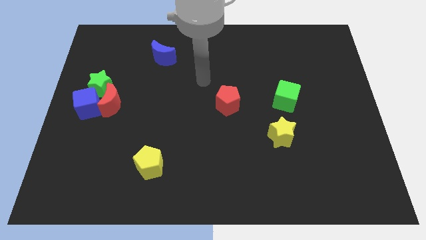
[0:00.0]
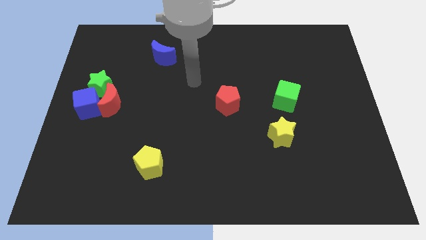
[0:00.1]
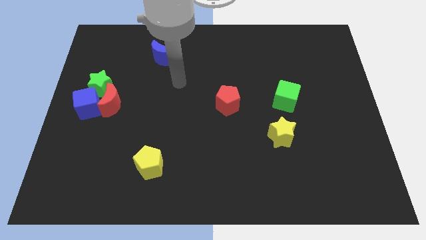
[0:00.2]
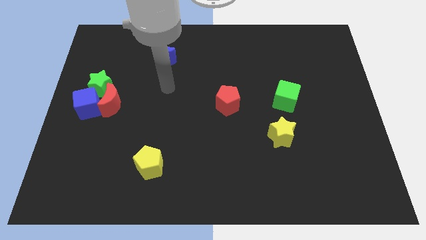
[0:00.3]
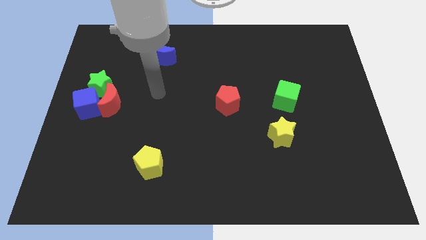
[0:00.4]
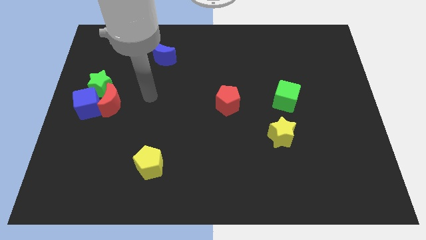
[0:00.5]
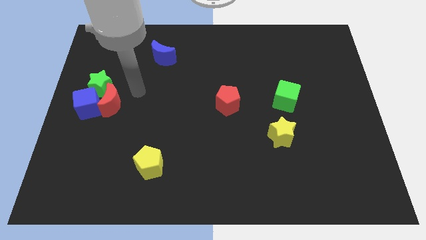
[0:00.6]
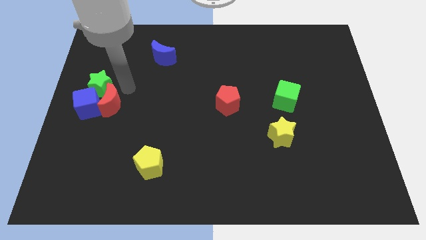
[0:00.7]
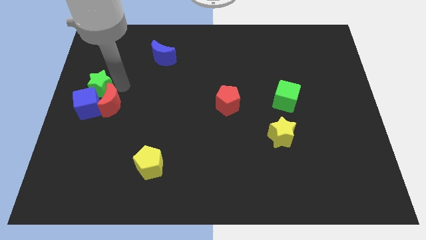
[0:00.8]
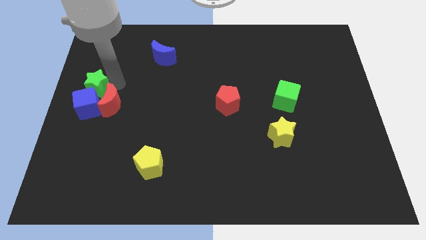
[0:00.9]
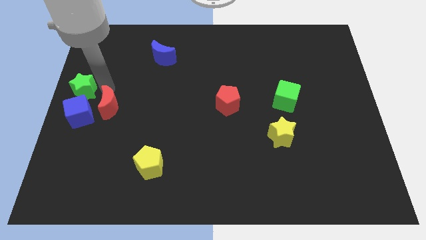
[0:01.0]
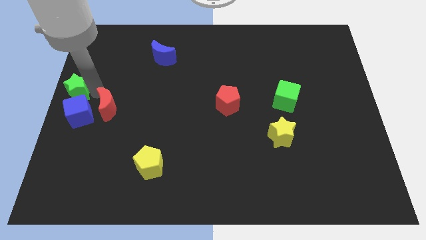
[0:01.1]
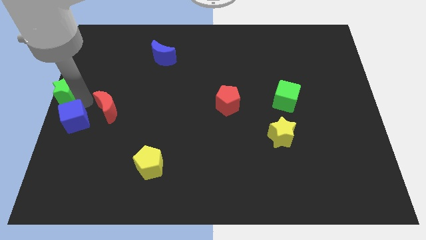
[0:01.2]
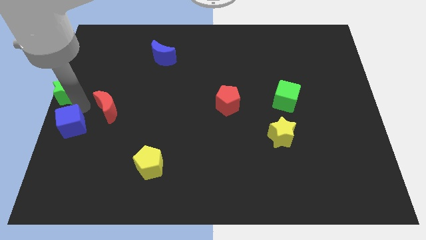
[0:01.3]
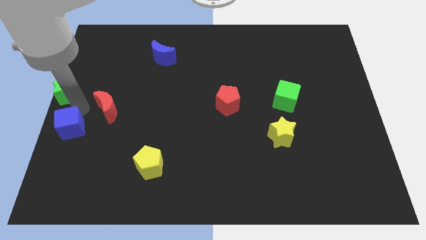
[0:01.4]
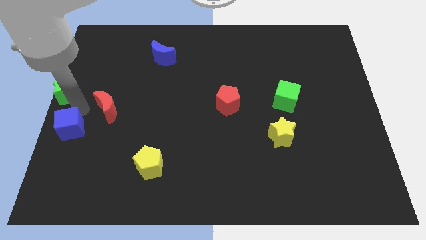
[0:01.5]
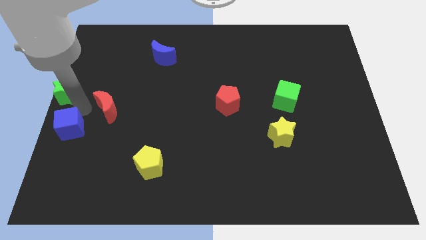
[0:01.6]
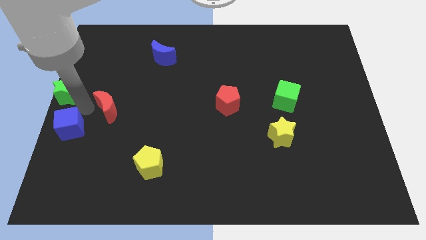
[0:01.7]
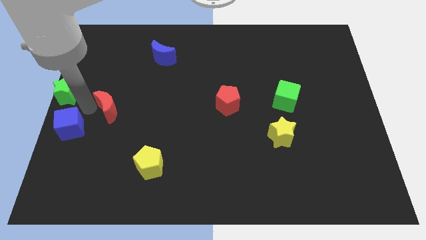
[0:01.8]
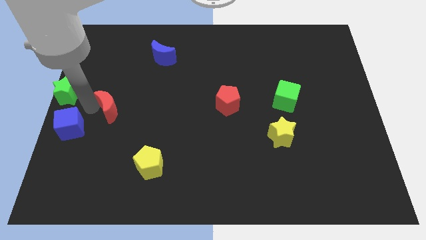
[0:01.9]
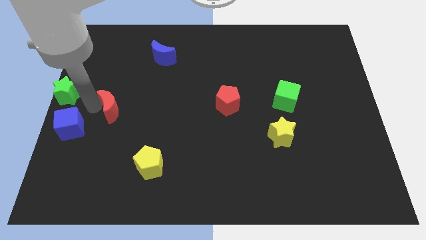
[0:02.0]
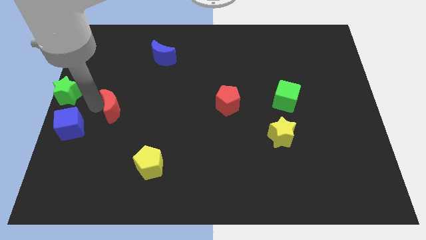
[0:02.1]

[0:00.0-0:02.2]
pull the red moon apart from the blue cube and green star

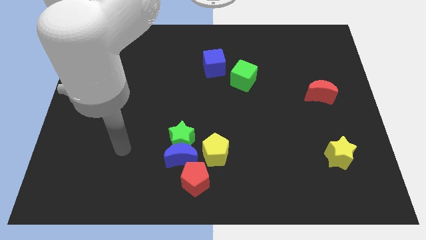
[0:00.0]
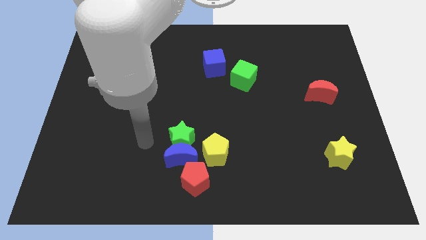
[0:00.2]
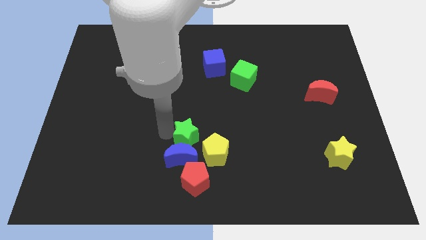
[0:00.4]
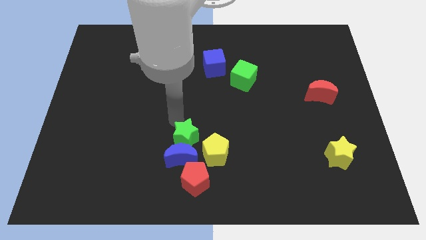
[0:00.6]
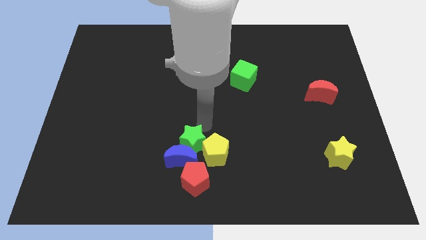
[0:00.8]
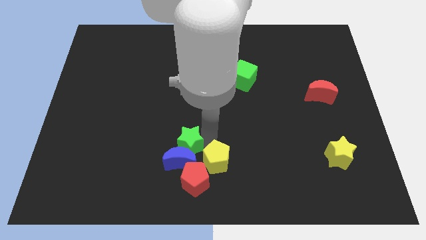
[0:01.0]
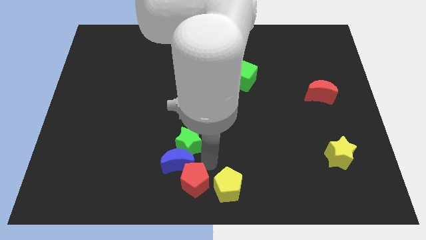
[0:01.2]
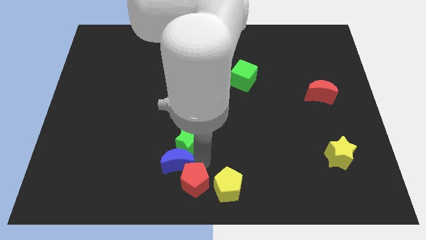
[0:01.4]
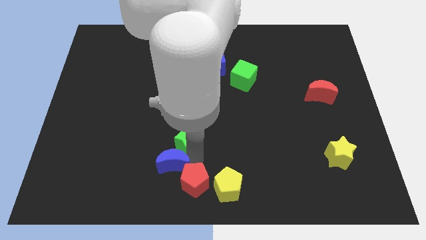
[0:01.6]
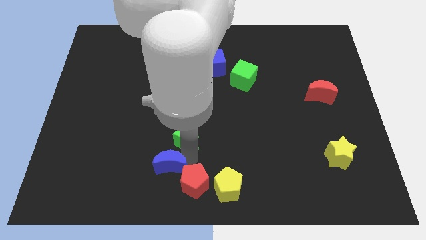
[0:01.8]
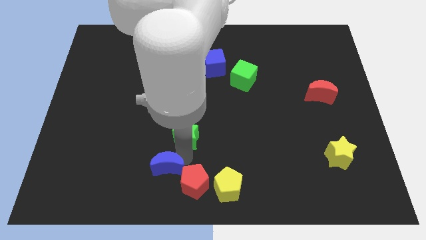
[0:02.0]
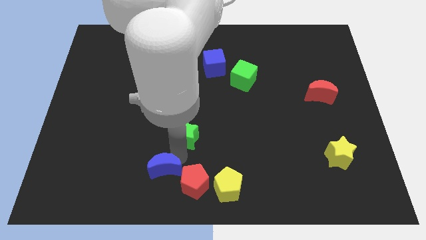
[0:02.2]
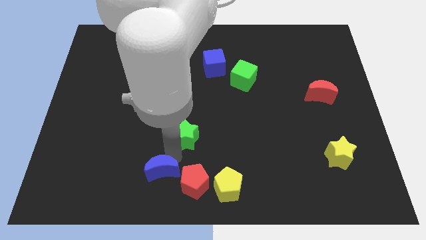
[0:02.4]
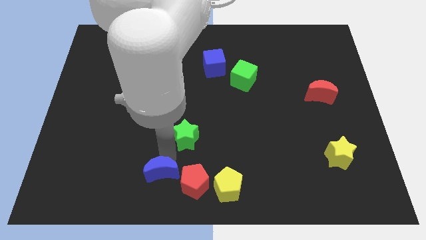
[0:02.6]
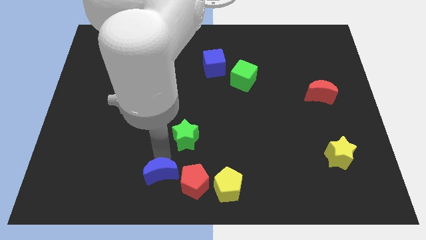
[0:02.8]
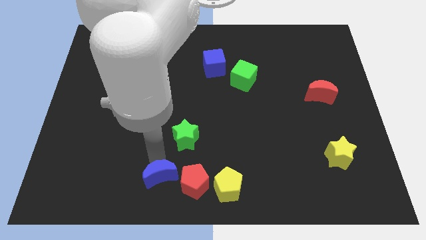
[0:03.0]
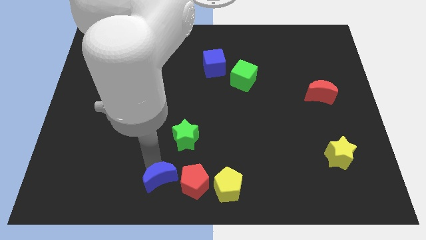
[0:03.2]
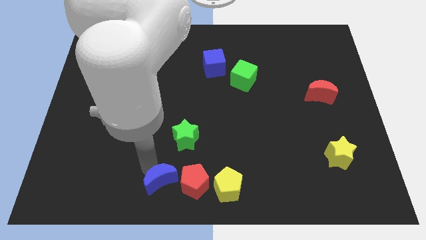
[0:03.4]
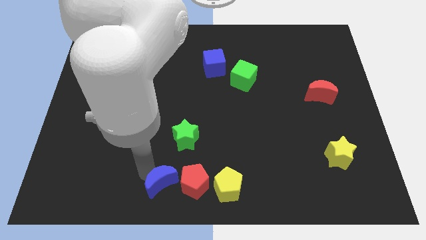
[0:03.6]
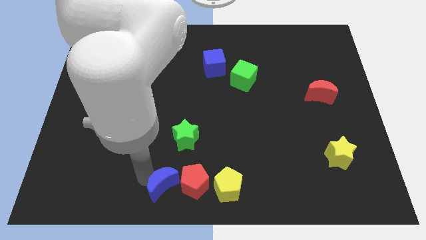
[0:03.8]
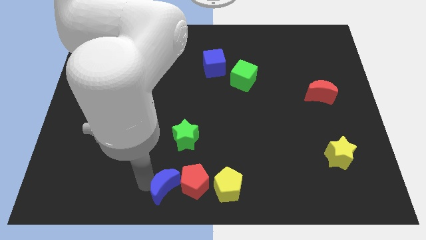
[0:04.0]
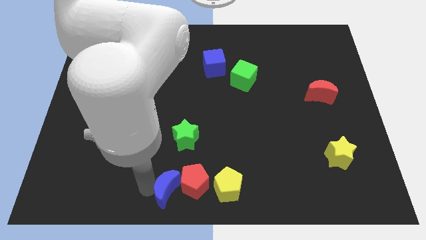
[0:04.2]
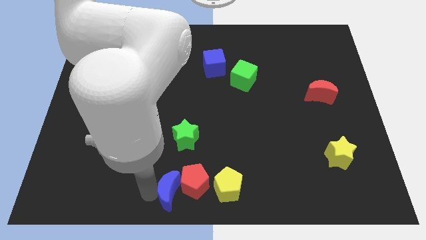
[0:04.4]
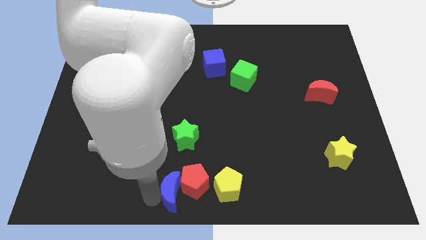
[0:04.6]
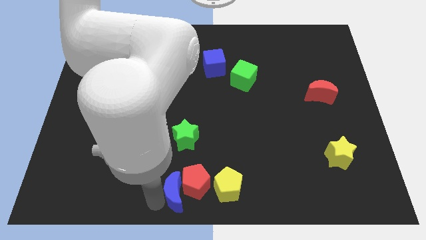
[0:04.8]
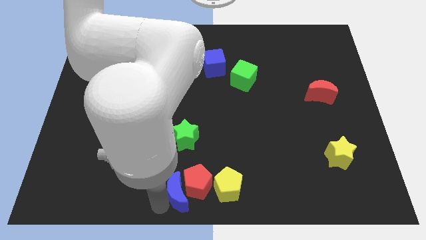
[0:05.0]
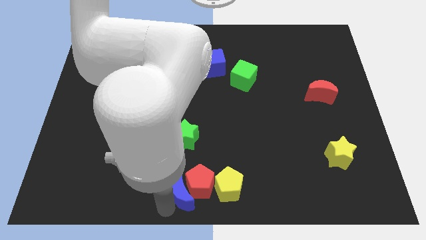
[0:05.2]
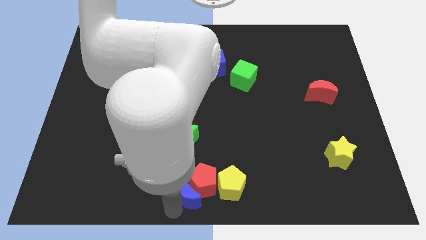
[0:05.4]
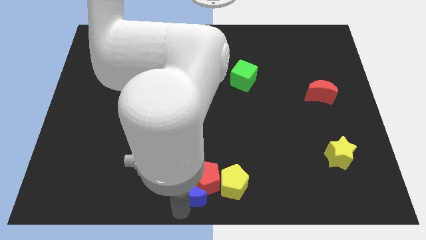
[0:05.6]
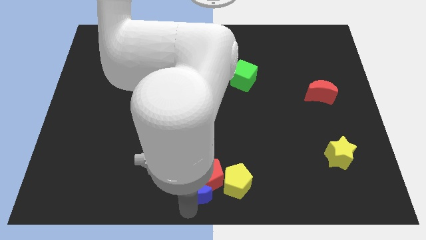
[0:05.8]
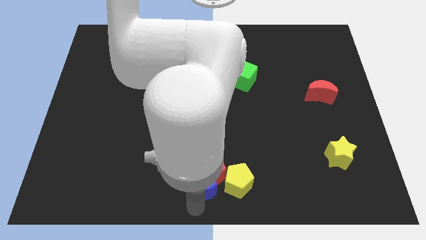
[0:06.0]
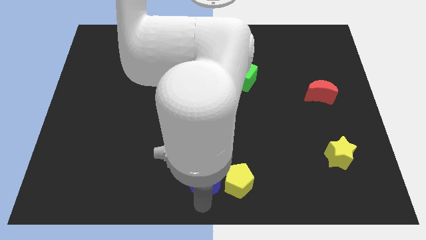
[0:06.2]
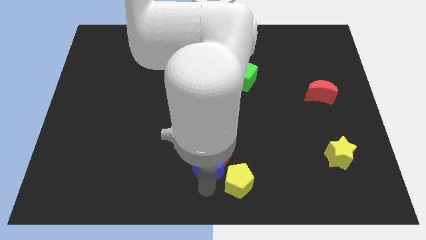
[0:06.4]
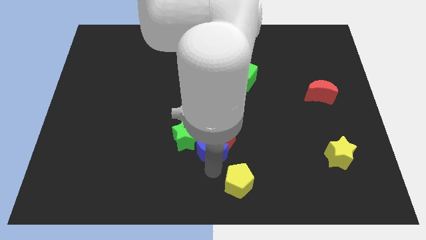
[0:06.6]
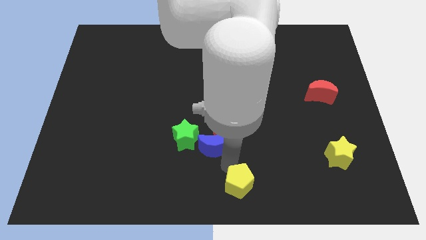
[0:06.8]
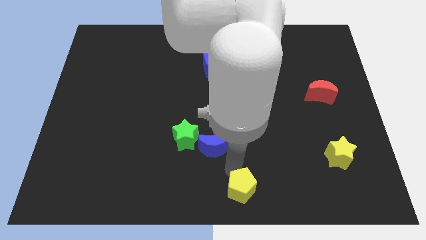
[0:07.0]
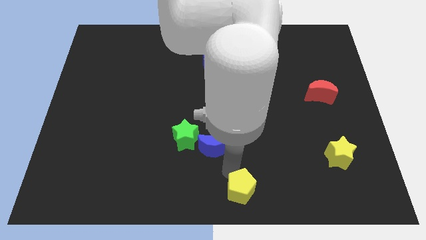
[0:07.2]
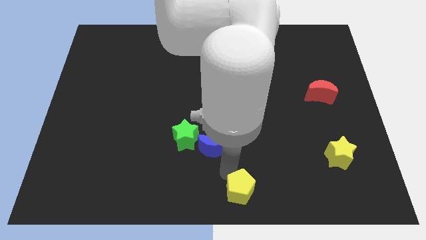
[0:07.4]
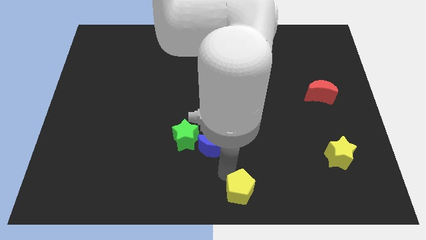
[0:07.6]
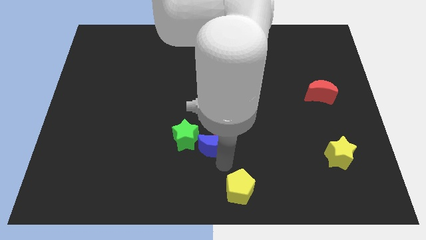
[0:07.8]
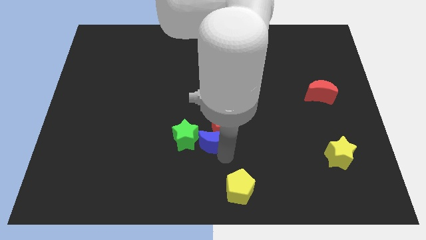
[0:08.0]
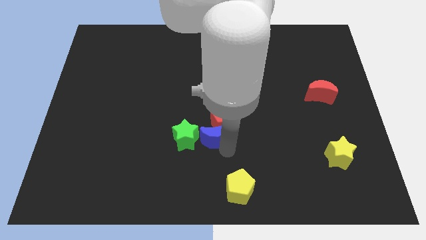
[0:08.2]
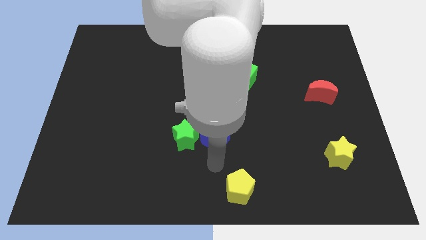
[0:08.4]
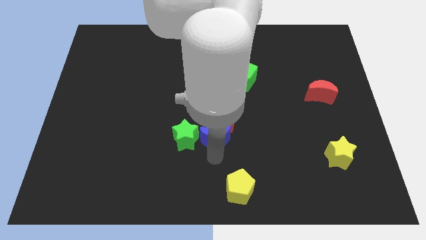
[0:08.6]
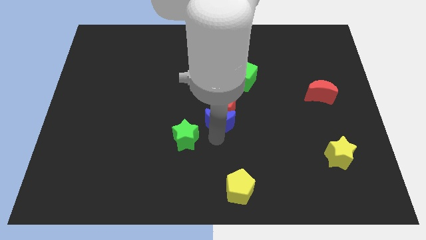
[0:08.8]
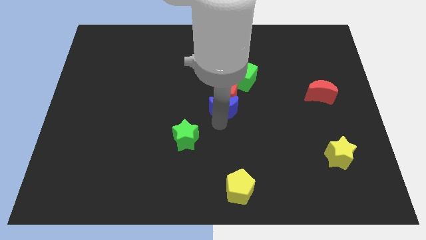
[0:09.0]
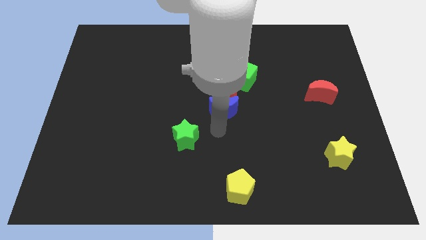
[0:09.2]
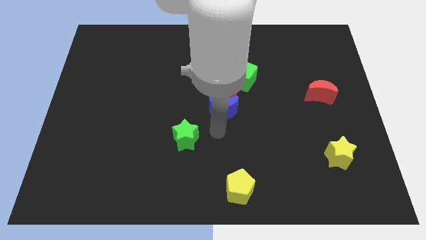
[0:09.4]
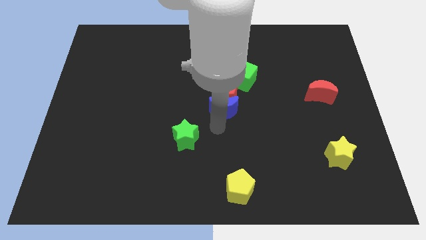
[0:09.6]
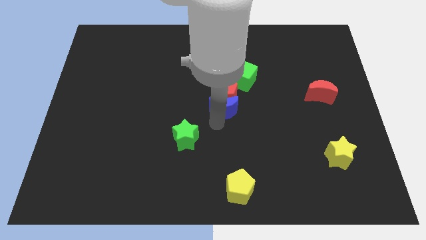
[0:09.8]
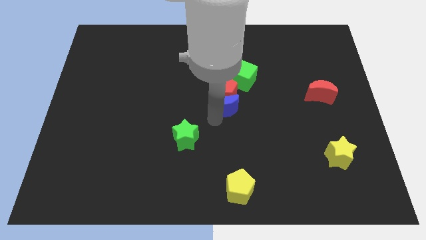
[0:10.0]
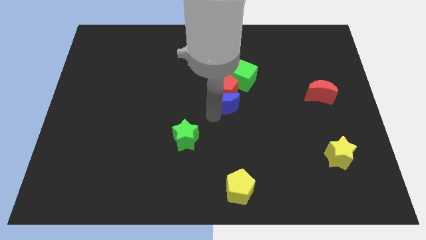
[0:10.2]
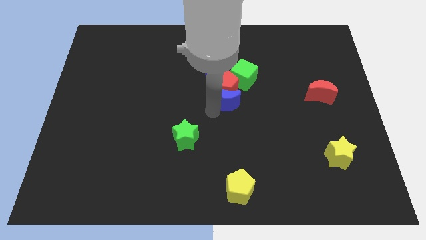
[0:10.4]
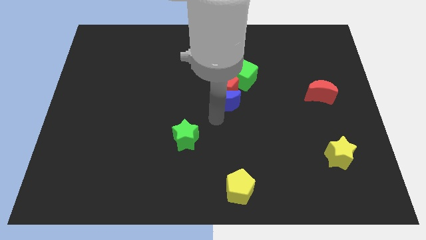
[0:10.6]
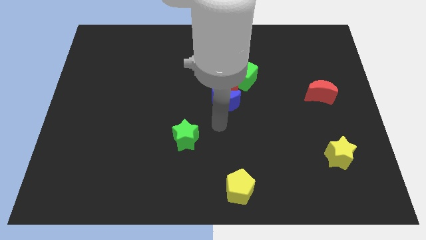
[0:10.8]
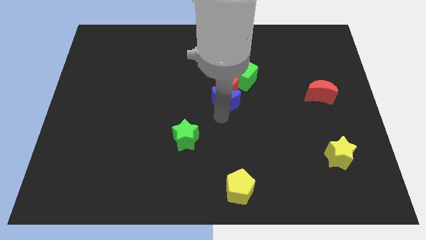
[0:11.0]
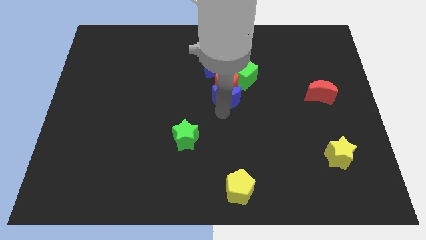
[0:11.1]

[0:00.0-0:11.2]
separate the blue moon from the group of blocks

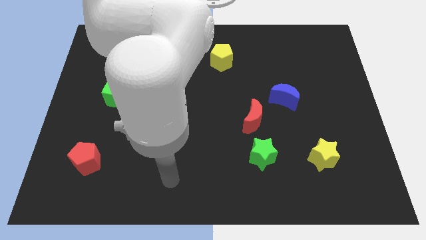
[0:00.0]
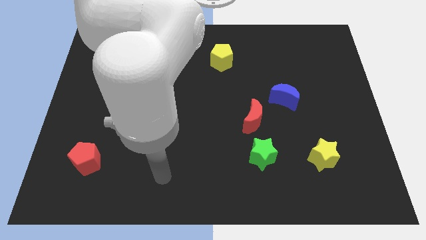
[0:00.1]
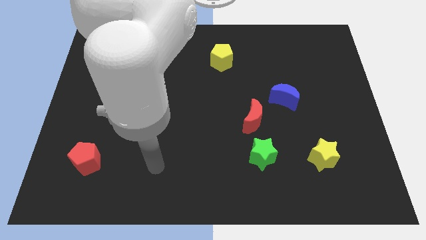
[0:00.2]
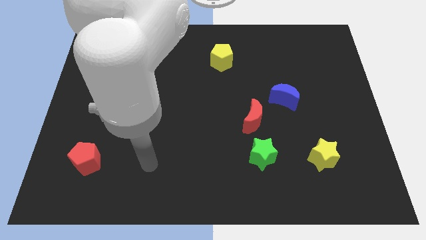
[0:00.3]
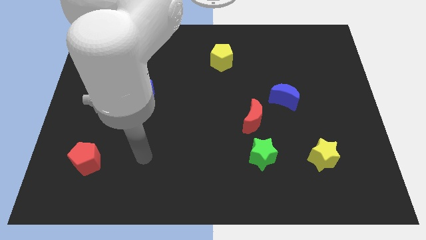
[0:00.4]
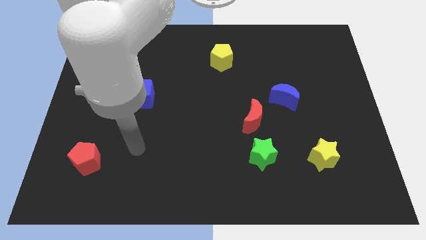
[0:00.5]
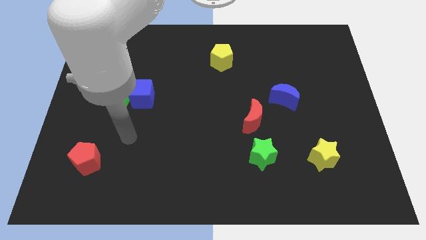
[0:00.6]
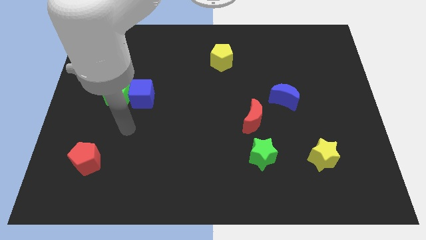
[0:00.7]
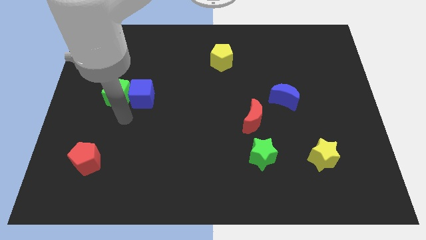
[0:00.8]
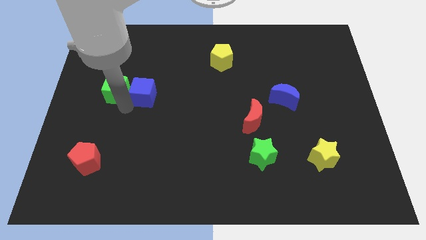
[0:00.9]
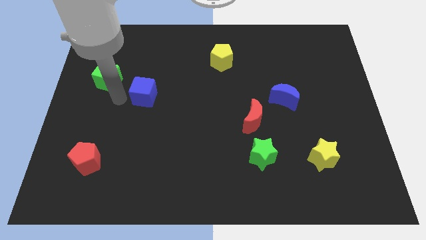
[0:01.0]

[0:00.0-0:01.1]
move the blue cube away from the green cube

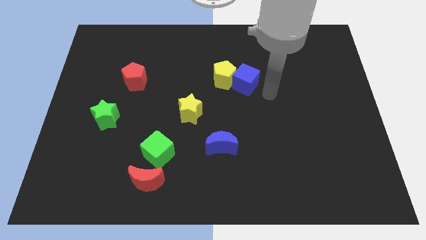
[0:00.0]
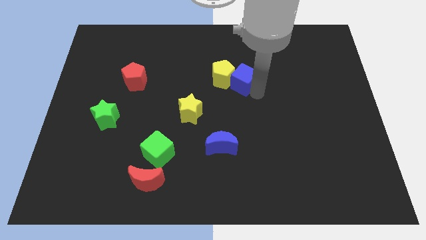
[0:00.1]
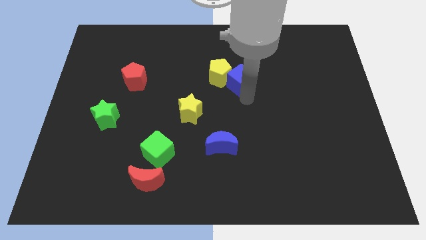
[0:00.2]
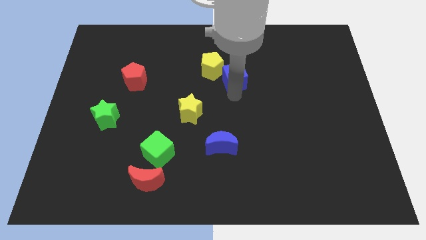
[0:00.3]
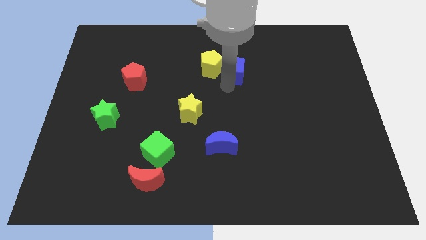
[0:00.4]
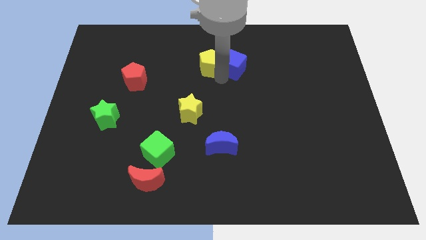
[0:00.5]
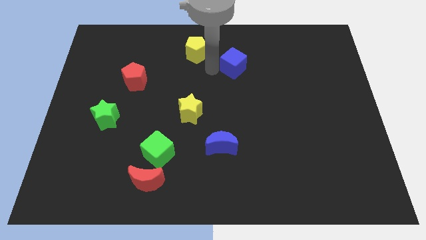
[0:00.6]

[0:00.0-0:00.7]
separate the blue cube from the yellow pentagon
